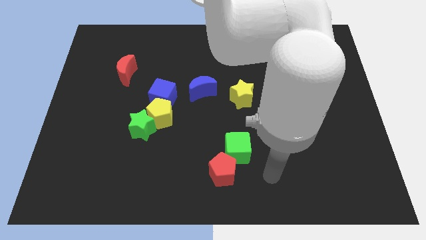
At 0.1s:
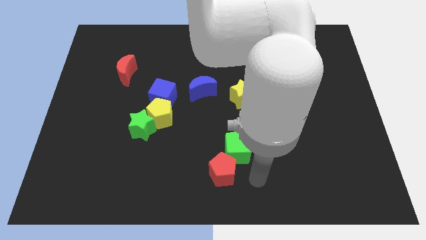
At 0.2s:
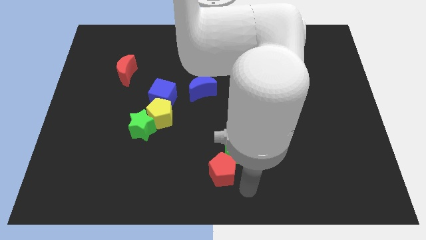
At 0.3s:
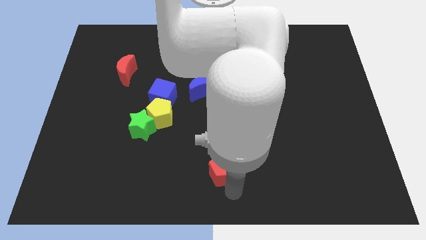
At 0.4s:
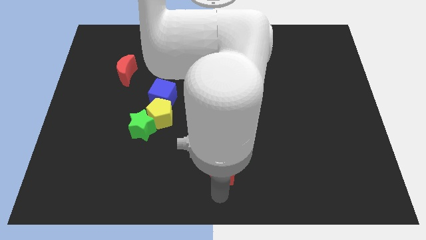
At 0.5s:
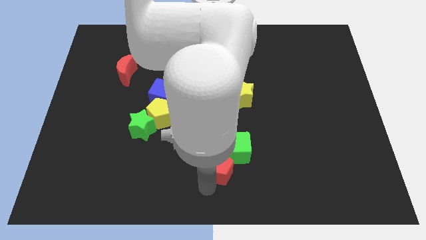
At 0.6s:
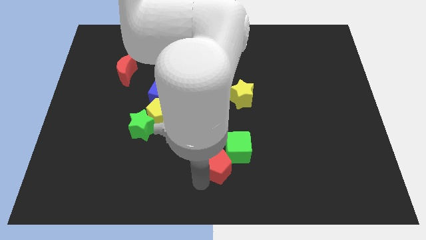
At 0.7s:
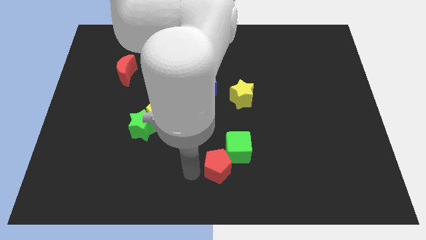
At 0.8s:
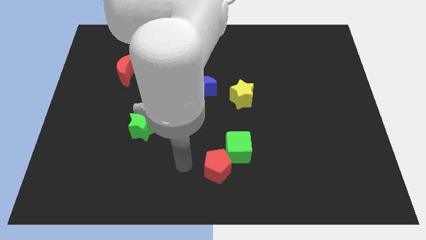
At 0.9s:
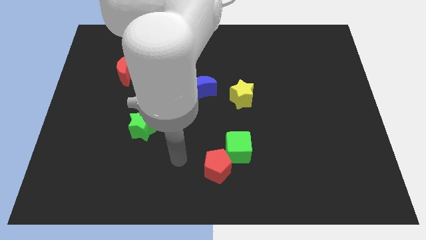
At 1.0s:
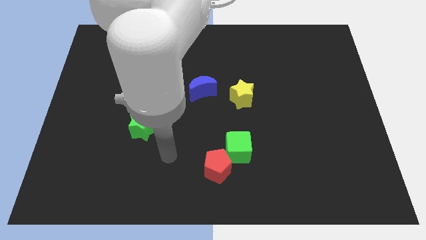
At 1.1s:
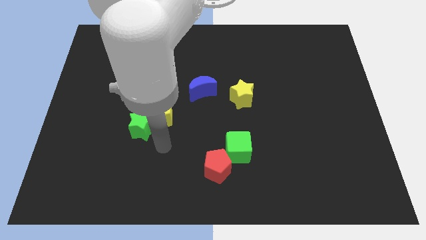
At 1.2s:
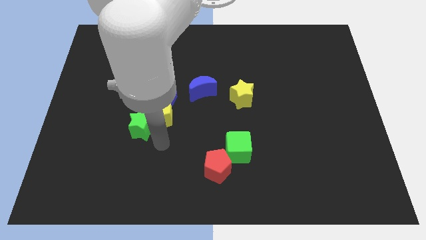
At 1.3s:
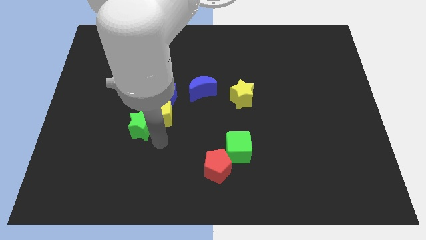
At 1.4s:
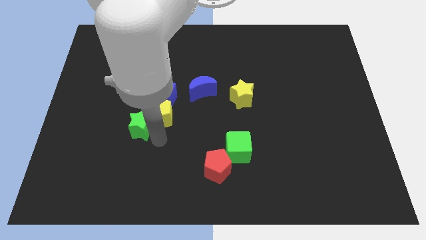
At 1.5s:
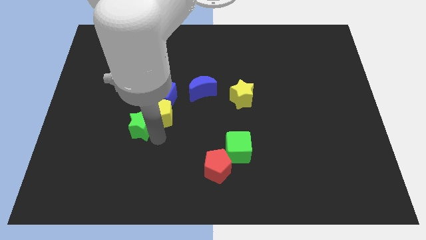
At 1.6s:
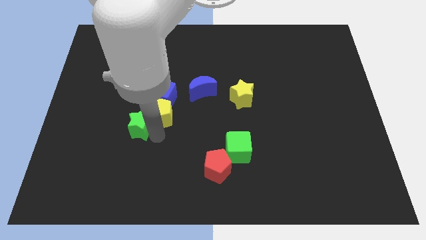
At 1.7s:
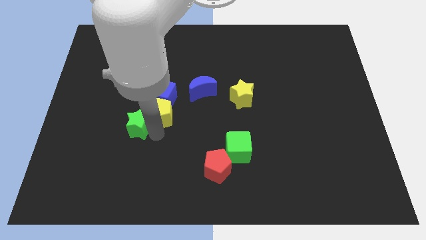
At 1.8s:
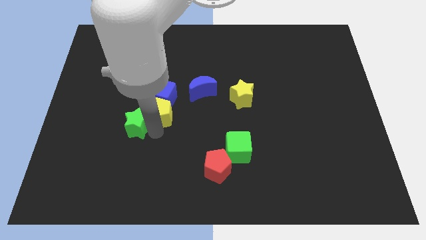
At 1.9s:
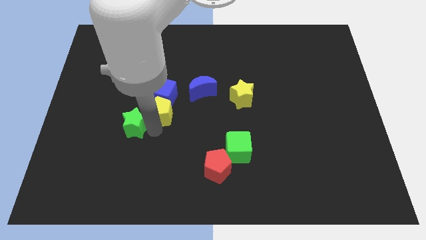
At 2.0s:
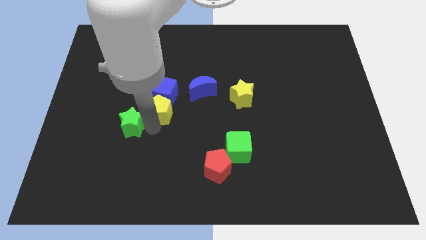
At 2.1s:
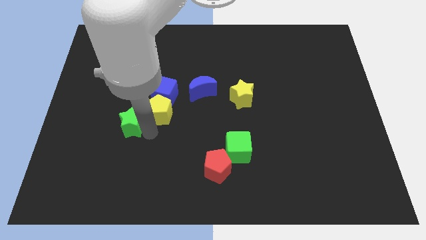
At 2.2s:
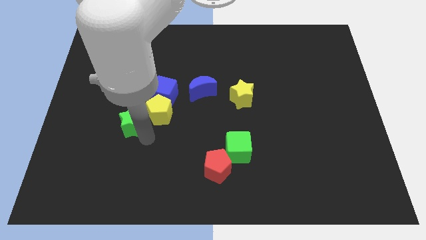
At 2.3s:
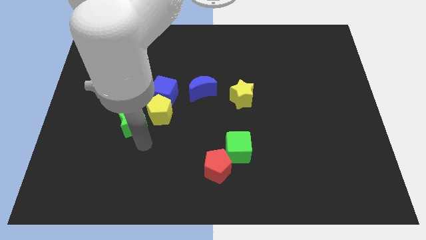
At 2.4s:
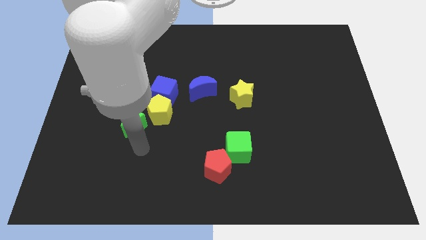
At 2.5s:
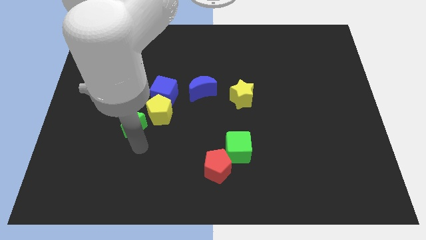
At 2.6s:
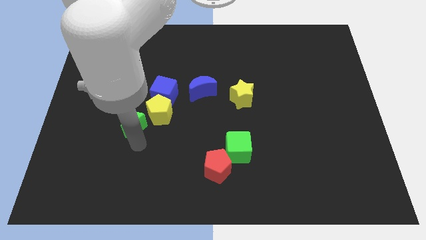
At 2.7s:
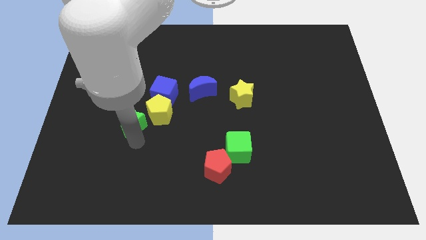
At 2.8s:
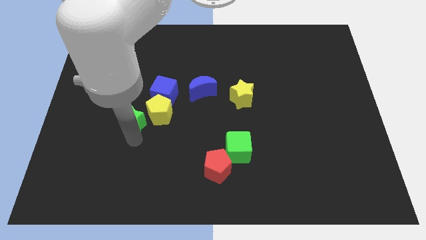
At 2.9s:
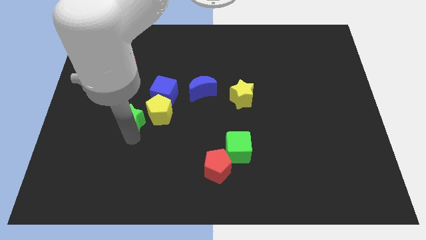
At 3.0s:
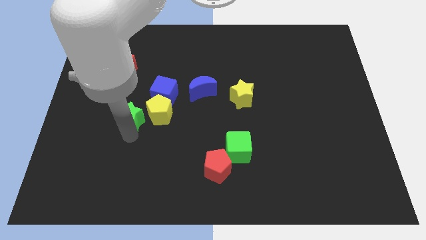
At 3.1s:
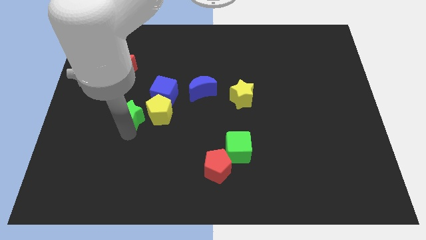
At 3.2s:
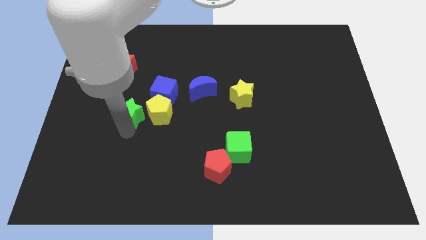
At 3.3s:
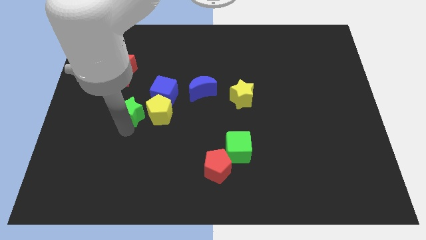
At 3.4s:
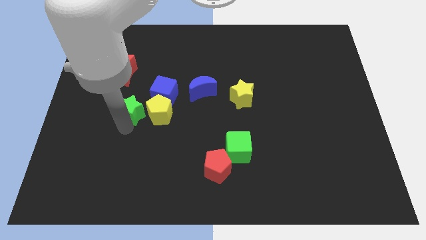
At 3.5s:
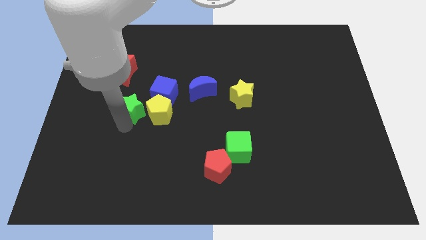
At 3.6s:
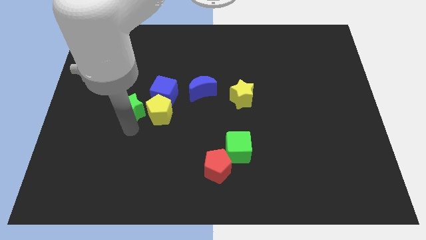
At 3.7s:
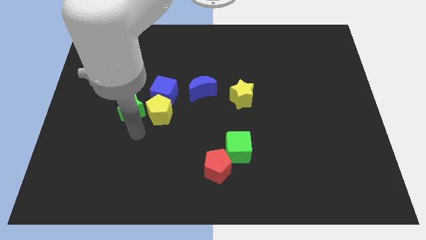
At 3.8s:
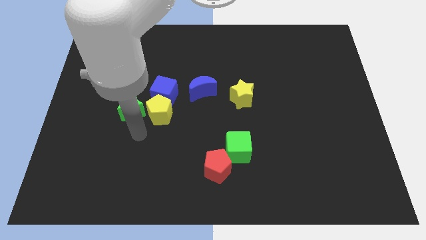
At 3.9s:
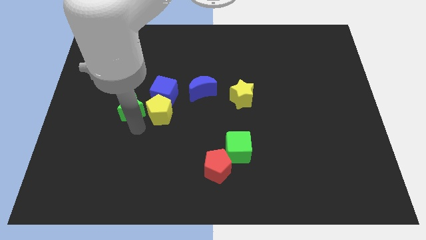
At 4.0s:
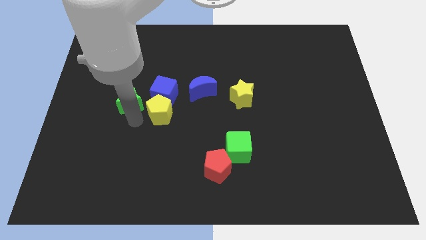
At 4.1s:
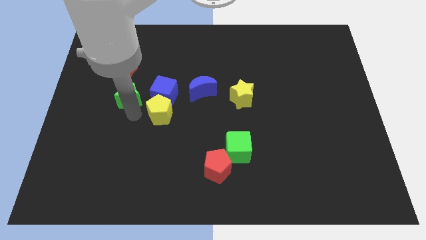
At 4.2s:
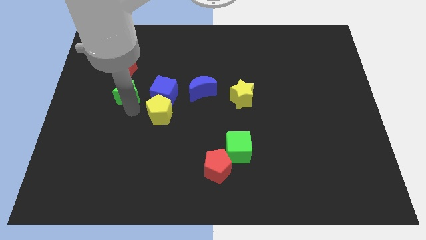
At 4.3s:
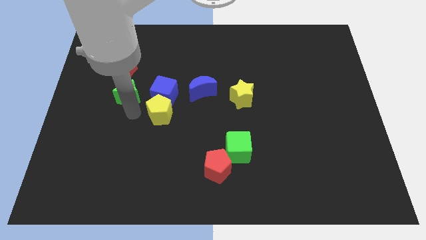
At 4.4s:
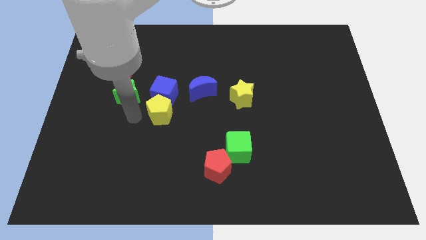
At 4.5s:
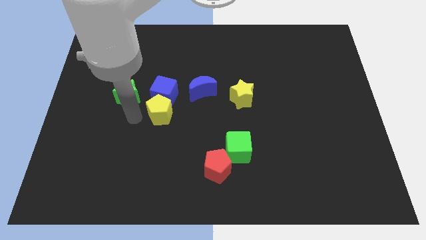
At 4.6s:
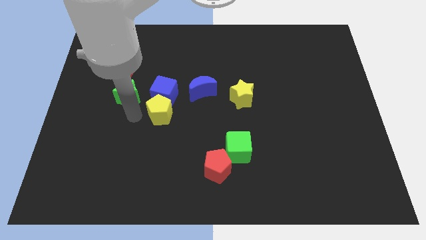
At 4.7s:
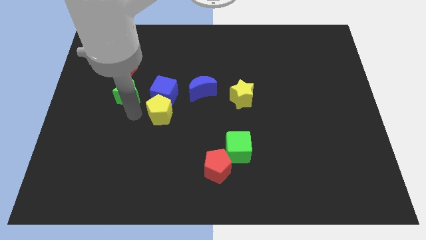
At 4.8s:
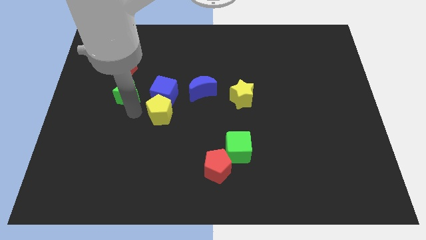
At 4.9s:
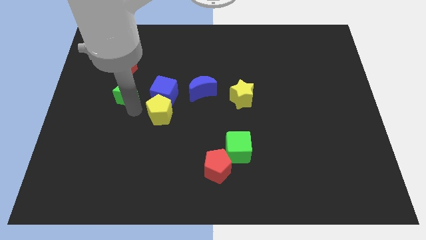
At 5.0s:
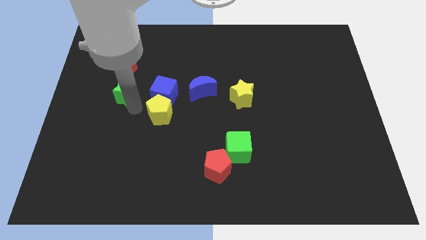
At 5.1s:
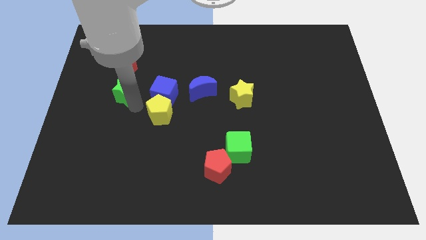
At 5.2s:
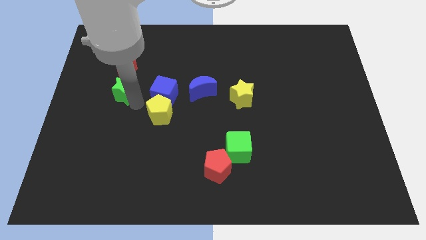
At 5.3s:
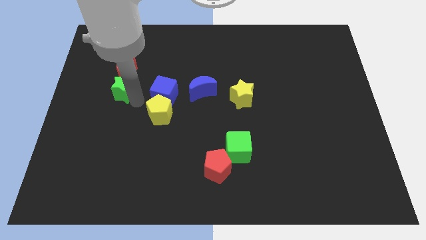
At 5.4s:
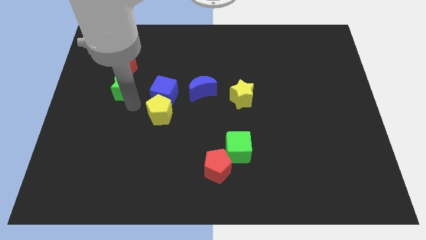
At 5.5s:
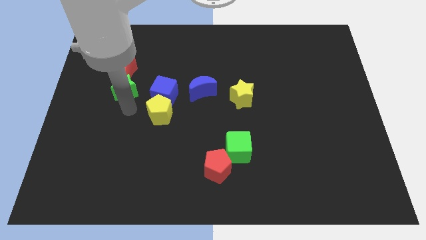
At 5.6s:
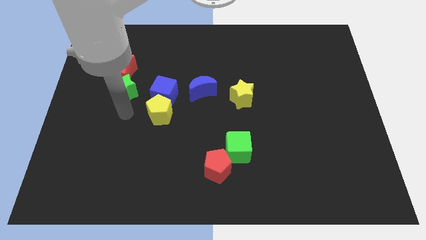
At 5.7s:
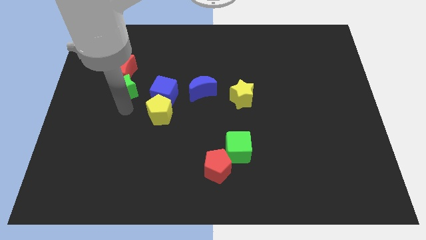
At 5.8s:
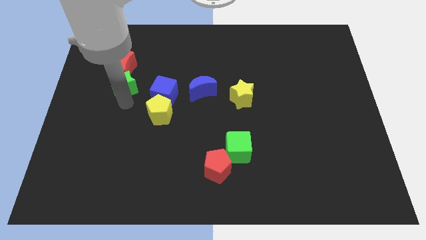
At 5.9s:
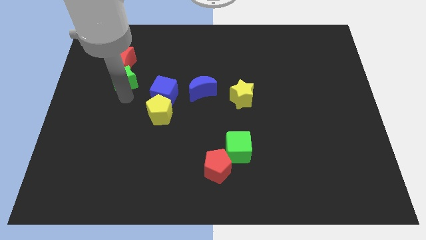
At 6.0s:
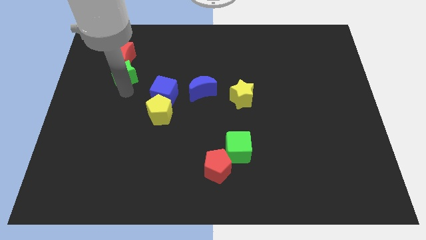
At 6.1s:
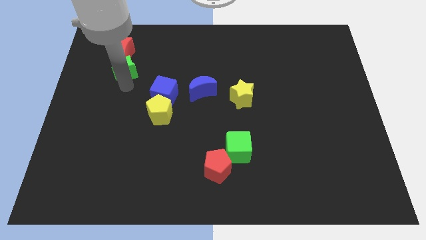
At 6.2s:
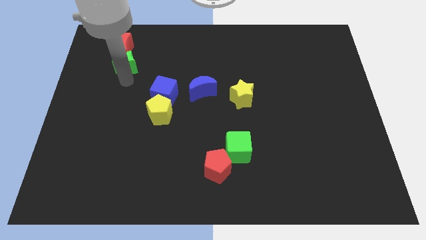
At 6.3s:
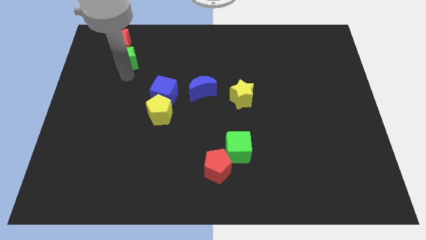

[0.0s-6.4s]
move the green star close to the red moon

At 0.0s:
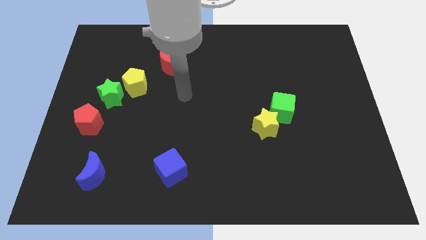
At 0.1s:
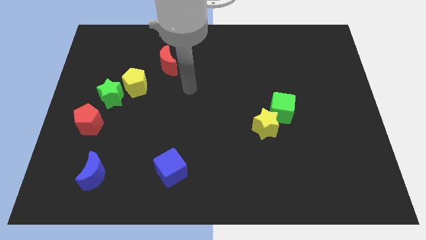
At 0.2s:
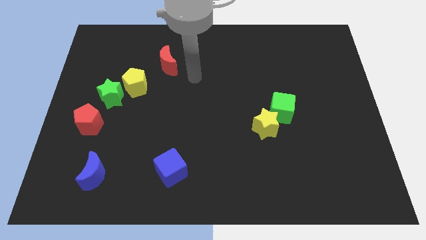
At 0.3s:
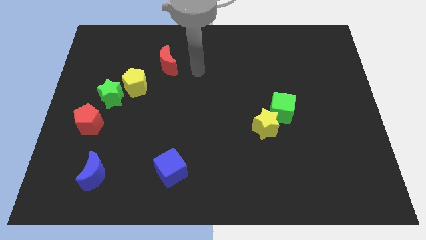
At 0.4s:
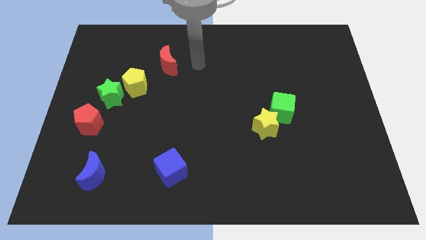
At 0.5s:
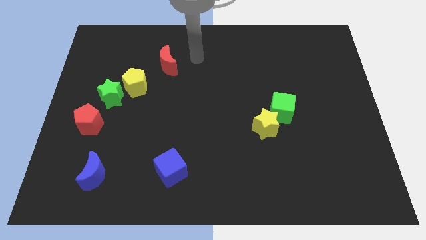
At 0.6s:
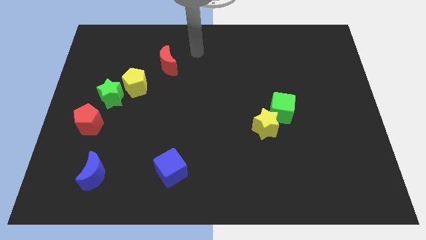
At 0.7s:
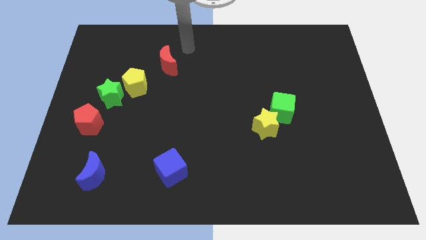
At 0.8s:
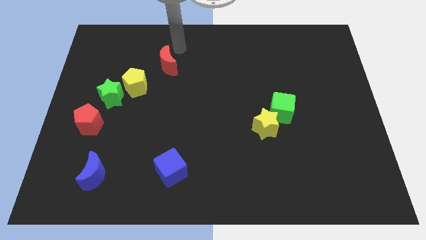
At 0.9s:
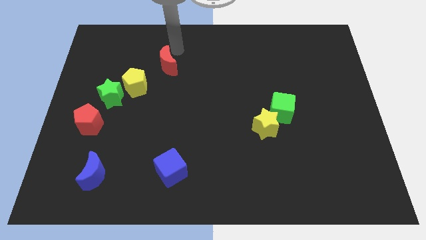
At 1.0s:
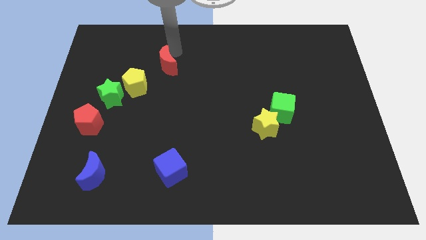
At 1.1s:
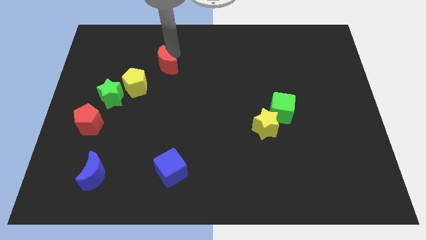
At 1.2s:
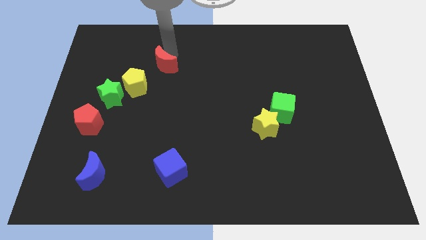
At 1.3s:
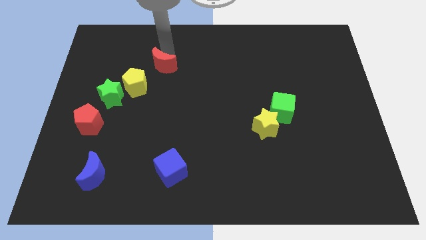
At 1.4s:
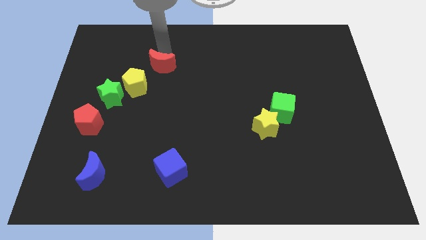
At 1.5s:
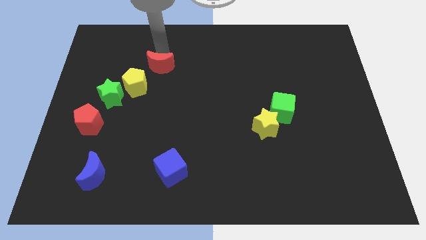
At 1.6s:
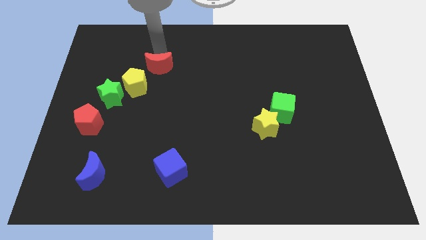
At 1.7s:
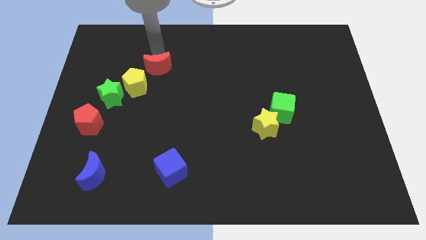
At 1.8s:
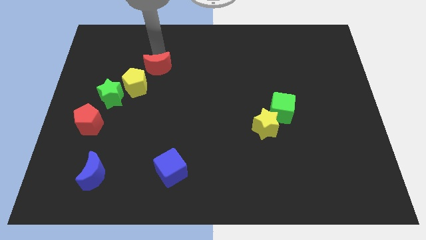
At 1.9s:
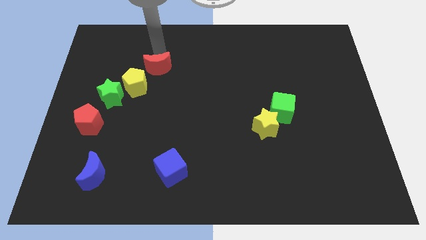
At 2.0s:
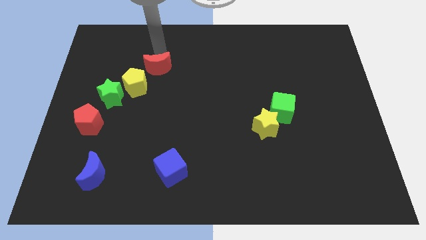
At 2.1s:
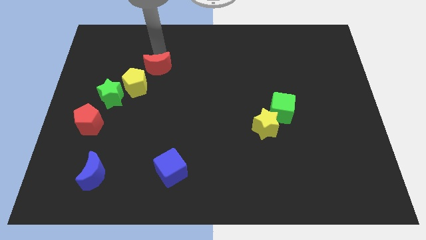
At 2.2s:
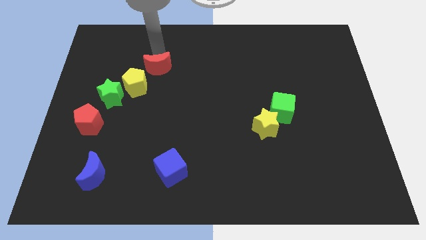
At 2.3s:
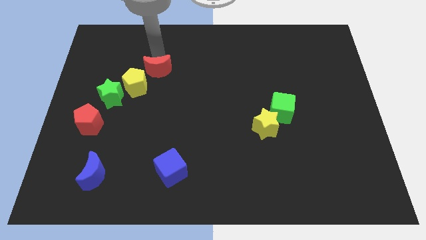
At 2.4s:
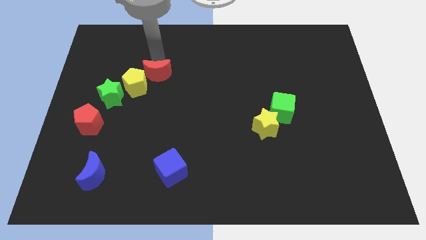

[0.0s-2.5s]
move the red moon towards the yellow pentagon
